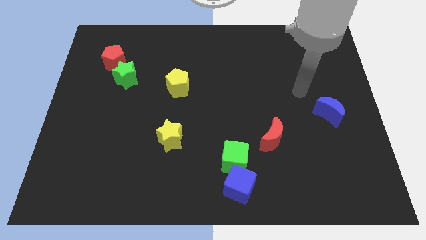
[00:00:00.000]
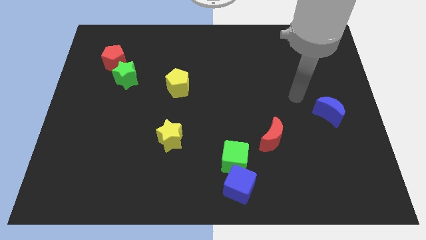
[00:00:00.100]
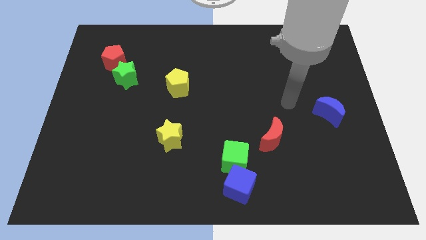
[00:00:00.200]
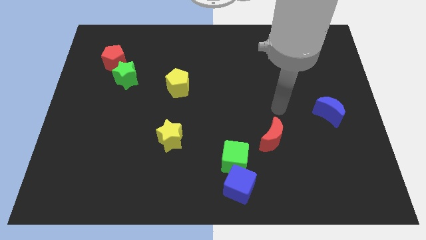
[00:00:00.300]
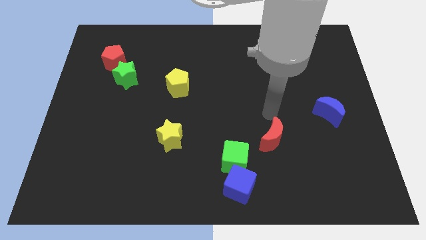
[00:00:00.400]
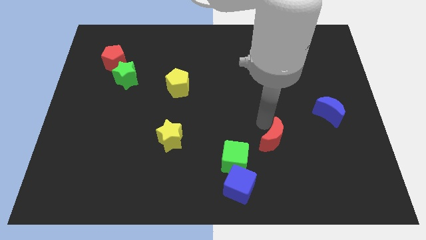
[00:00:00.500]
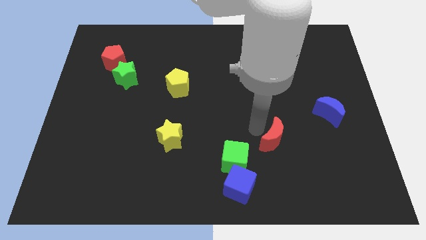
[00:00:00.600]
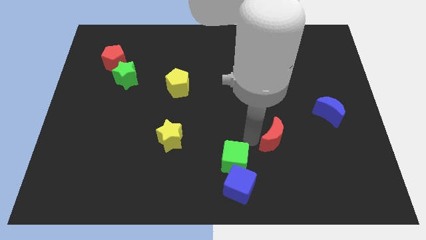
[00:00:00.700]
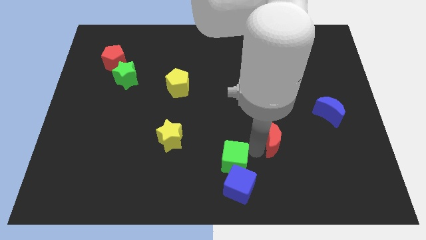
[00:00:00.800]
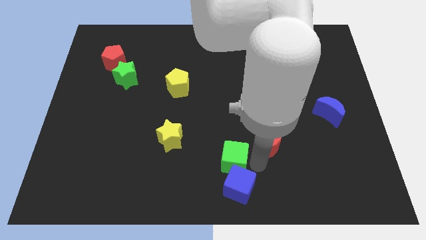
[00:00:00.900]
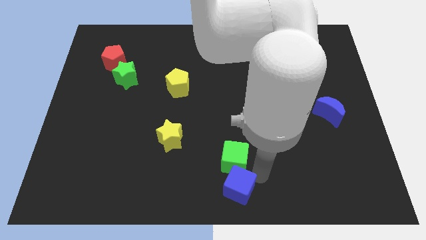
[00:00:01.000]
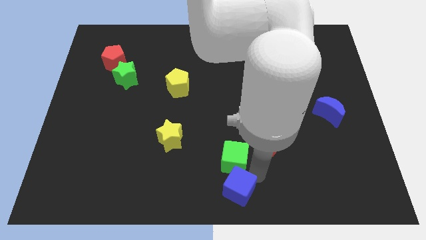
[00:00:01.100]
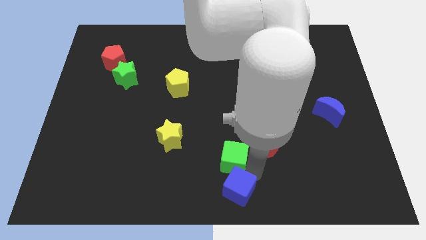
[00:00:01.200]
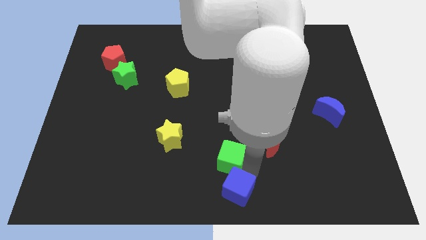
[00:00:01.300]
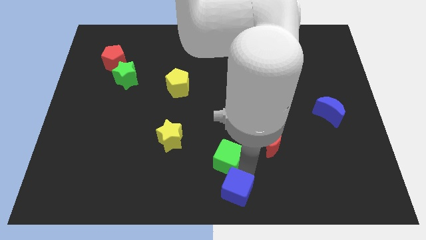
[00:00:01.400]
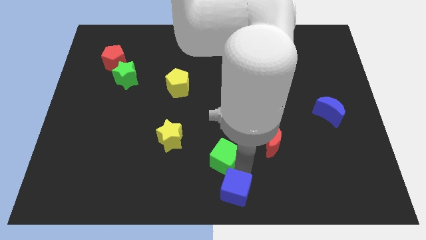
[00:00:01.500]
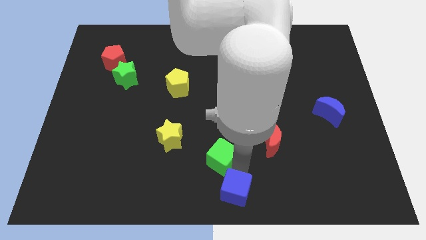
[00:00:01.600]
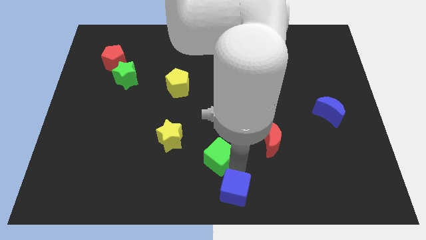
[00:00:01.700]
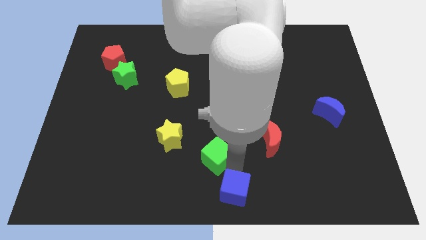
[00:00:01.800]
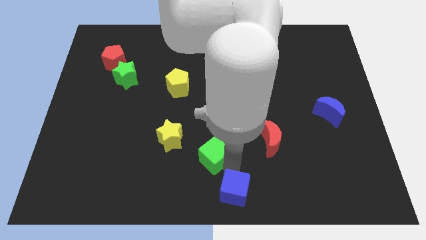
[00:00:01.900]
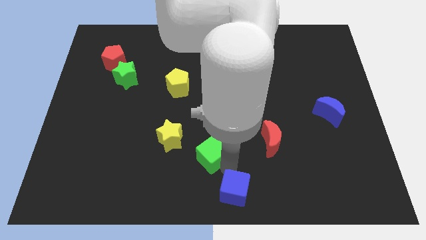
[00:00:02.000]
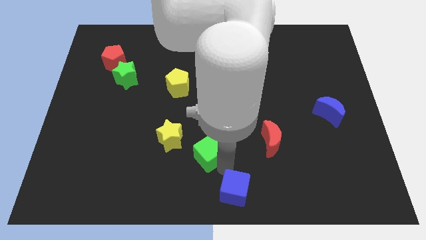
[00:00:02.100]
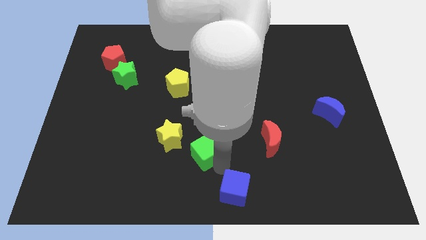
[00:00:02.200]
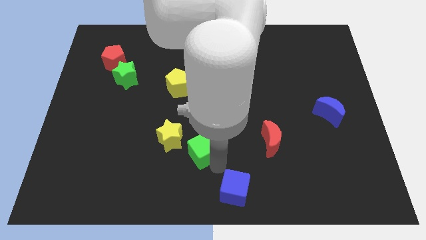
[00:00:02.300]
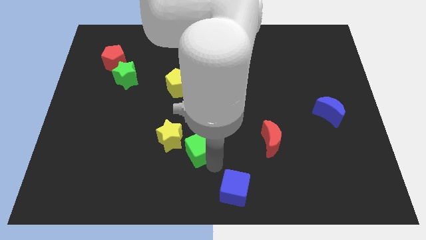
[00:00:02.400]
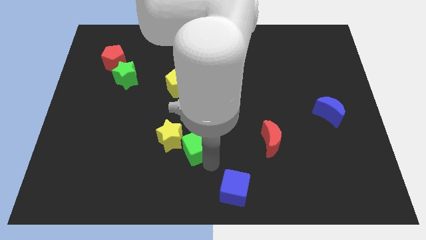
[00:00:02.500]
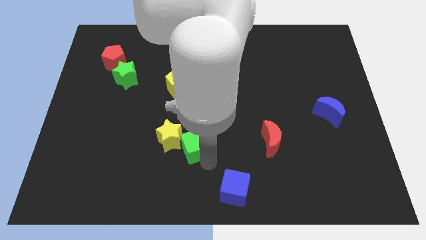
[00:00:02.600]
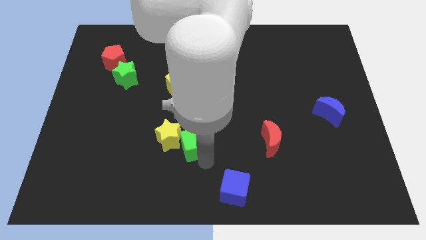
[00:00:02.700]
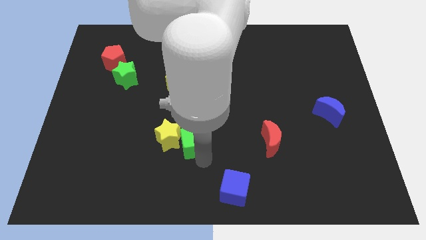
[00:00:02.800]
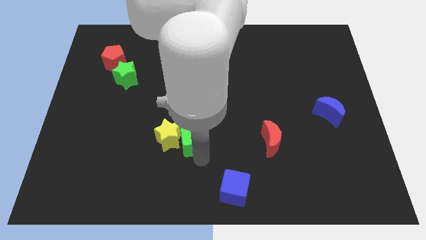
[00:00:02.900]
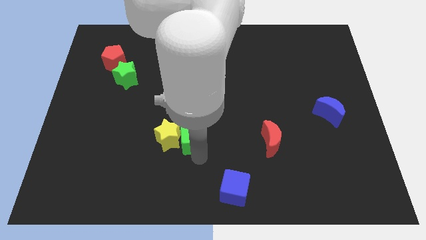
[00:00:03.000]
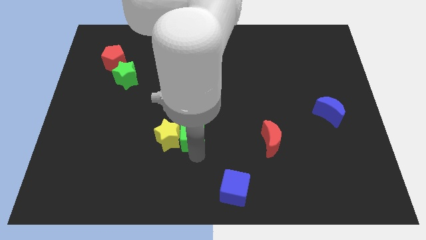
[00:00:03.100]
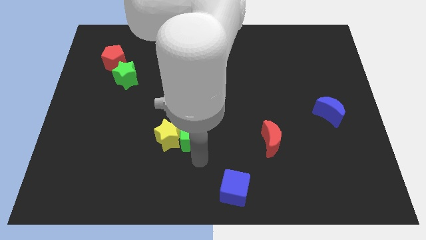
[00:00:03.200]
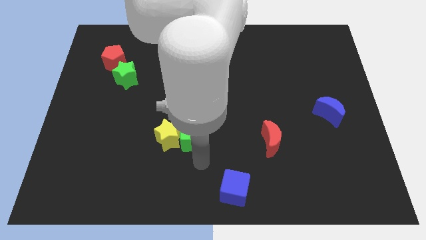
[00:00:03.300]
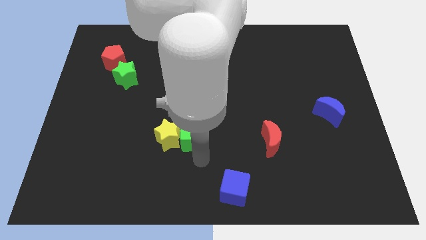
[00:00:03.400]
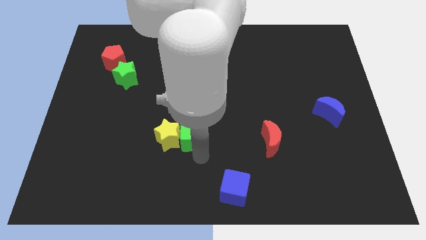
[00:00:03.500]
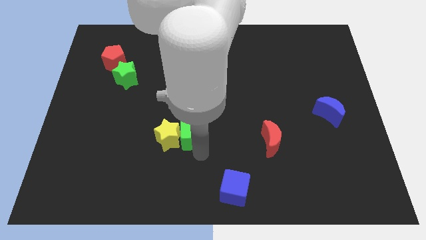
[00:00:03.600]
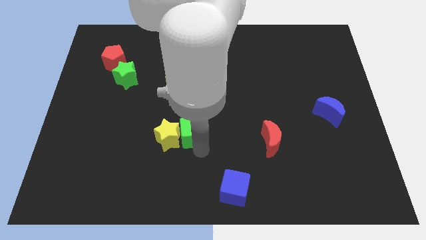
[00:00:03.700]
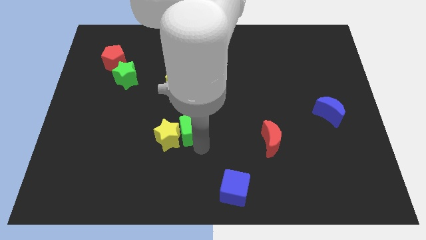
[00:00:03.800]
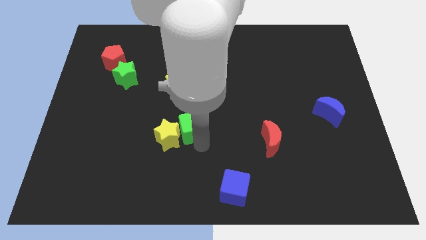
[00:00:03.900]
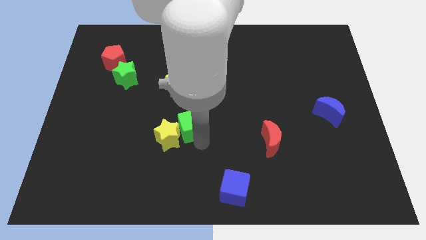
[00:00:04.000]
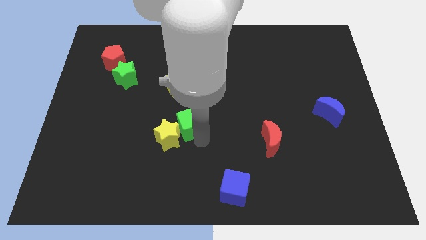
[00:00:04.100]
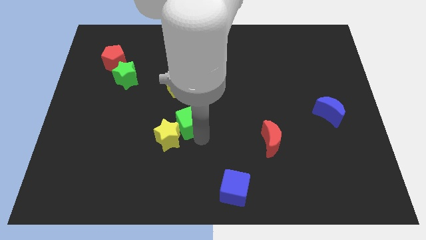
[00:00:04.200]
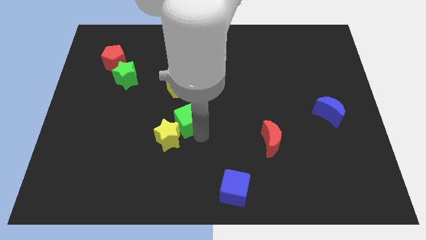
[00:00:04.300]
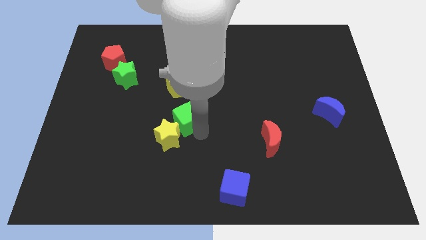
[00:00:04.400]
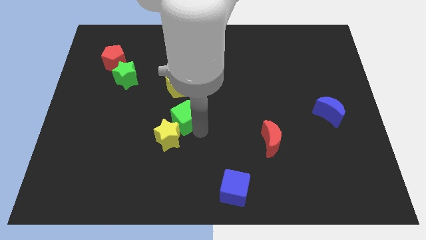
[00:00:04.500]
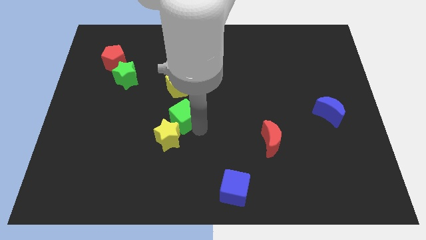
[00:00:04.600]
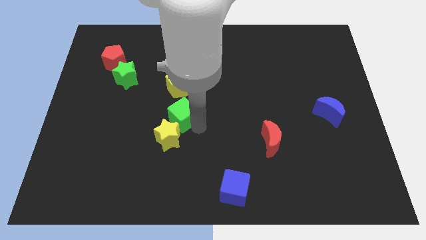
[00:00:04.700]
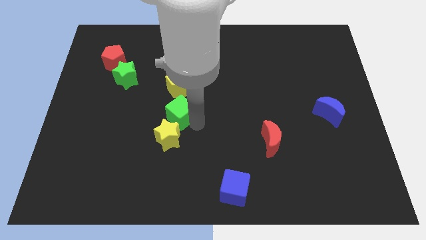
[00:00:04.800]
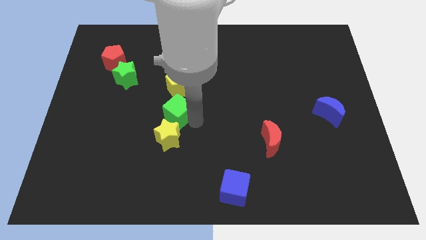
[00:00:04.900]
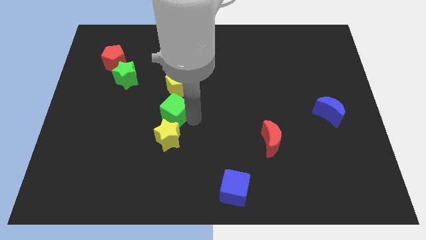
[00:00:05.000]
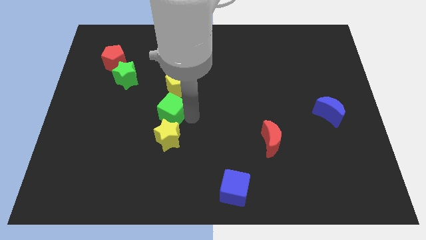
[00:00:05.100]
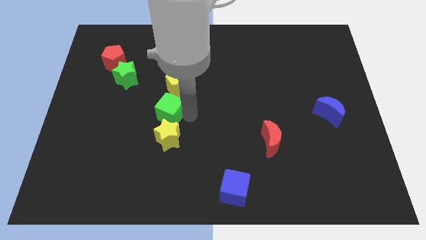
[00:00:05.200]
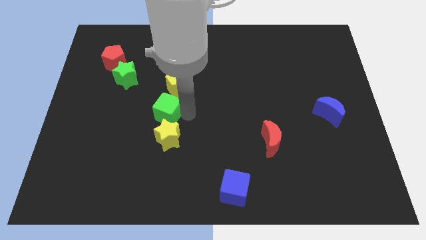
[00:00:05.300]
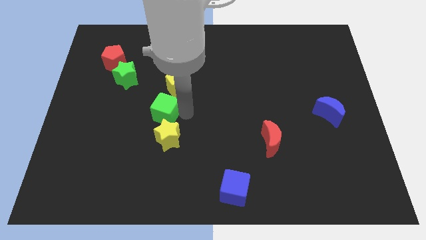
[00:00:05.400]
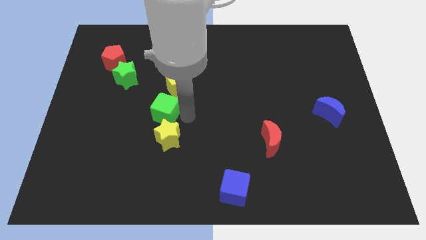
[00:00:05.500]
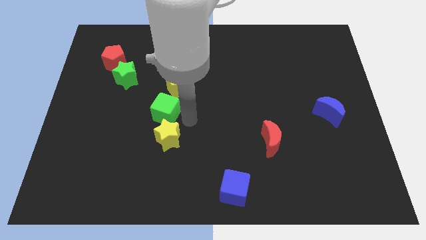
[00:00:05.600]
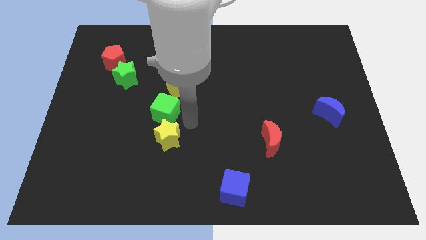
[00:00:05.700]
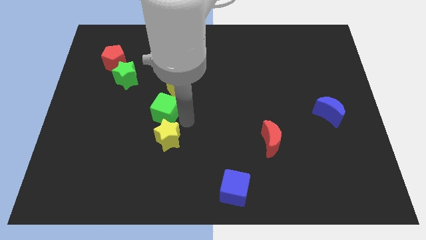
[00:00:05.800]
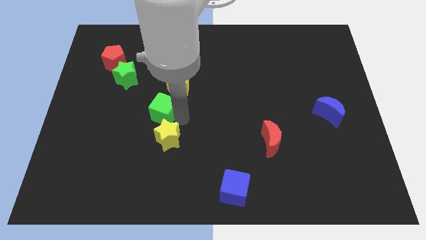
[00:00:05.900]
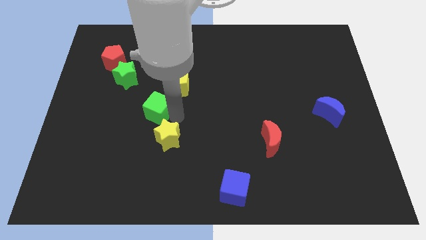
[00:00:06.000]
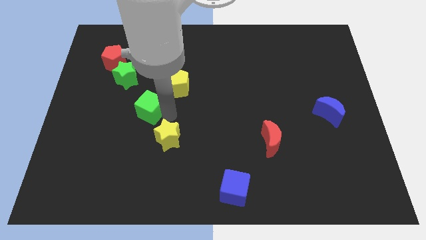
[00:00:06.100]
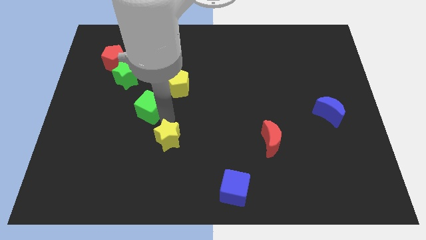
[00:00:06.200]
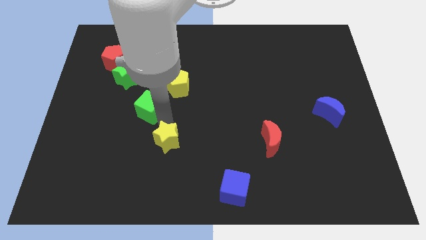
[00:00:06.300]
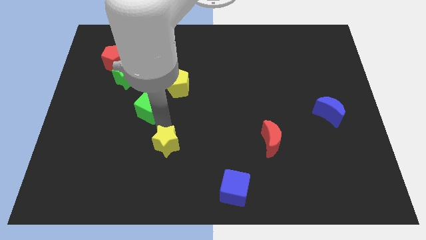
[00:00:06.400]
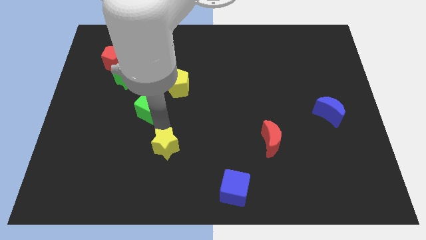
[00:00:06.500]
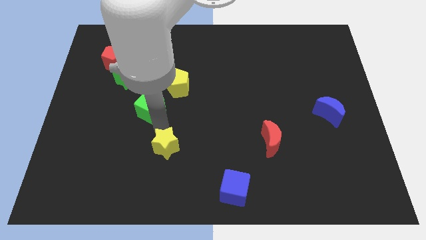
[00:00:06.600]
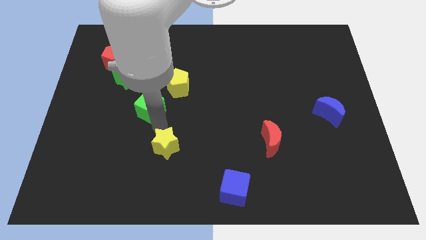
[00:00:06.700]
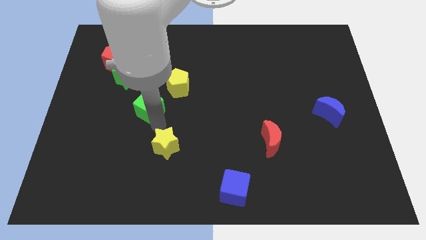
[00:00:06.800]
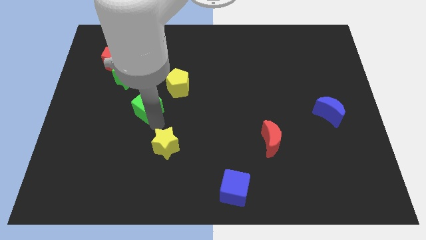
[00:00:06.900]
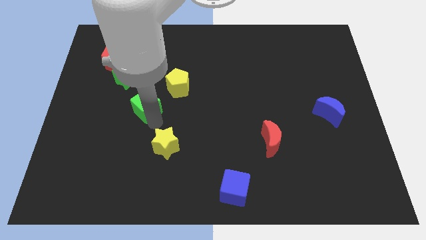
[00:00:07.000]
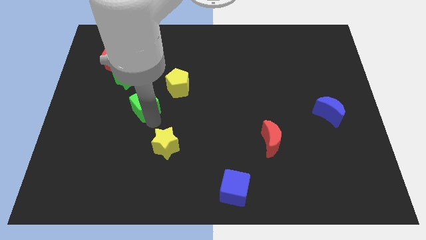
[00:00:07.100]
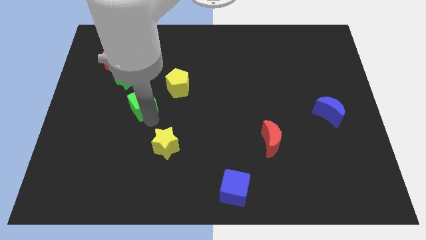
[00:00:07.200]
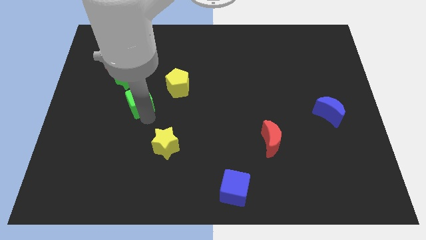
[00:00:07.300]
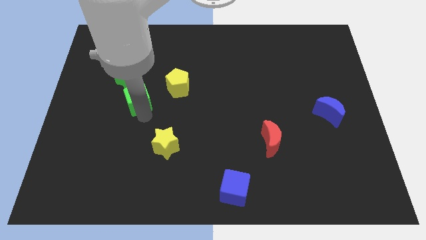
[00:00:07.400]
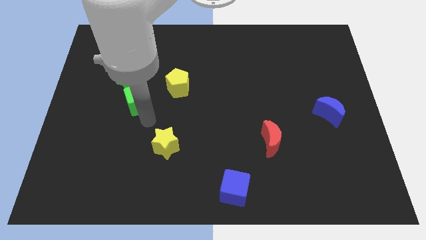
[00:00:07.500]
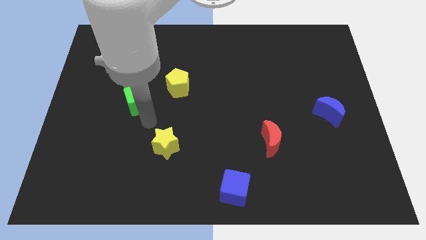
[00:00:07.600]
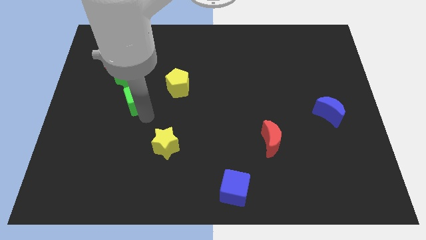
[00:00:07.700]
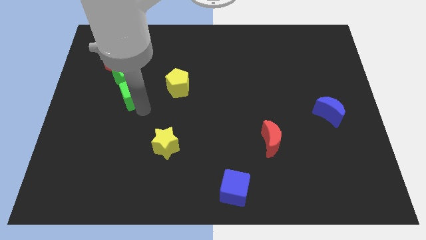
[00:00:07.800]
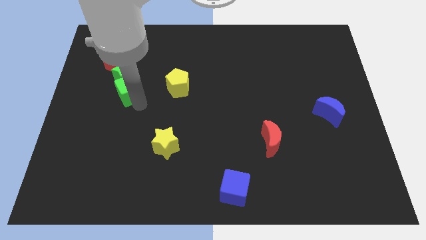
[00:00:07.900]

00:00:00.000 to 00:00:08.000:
put the green cube close to the green star
